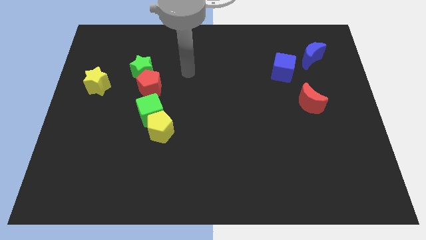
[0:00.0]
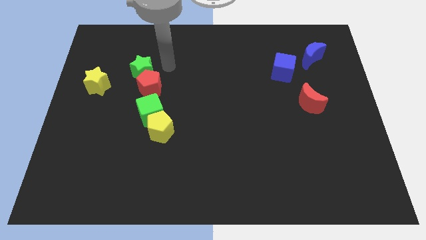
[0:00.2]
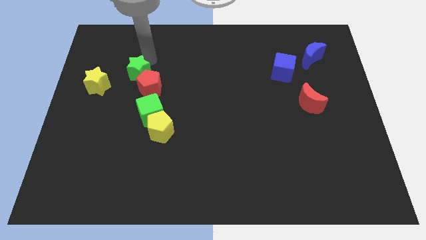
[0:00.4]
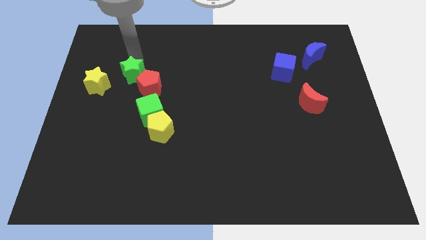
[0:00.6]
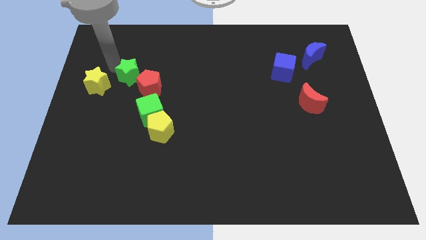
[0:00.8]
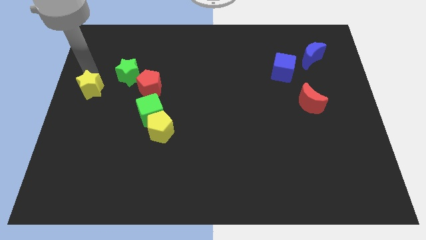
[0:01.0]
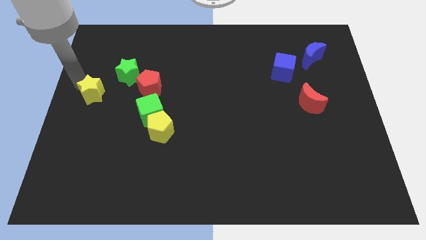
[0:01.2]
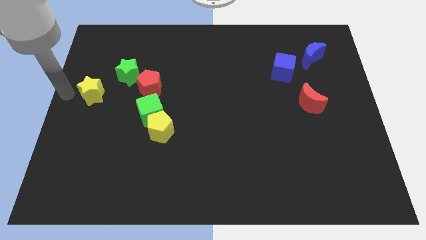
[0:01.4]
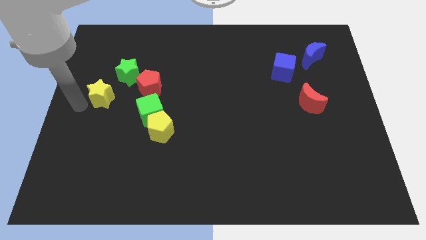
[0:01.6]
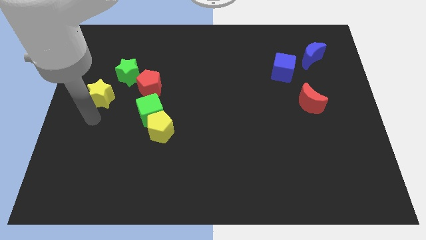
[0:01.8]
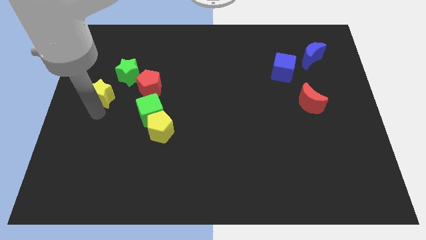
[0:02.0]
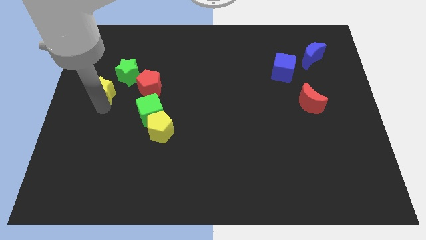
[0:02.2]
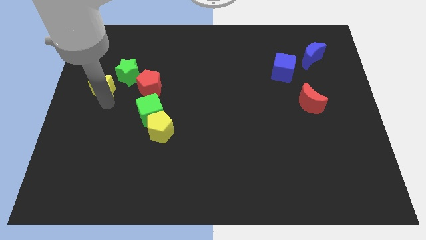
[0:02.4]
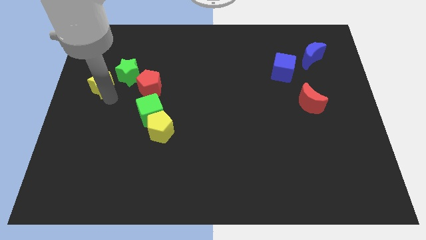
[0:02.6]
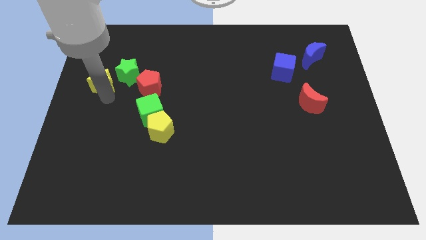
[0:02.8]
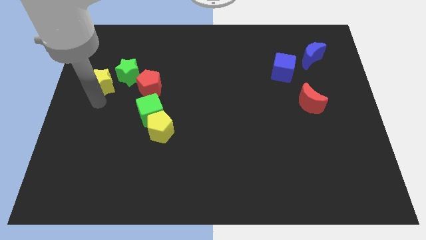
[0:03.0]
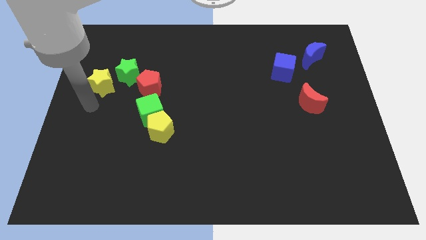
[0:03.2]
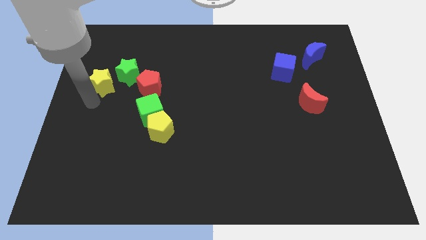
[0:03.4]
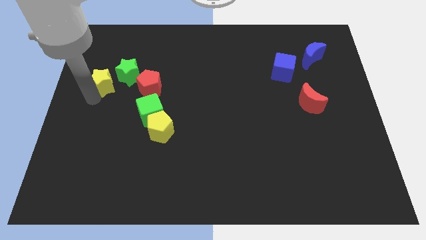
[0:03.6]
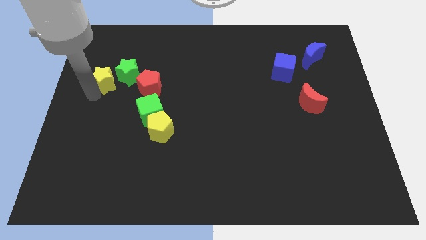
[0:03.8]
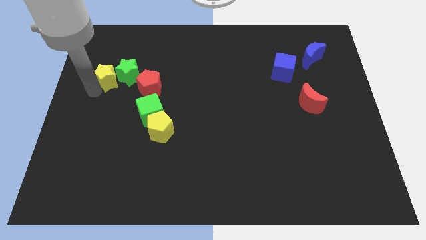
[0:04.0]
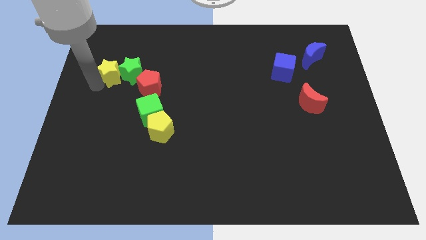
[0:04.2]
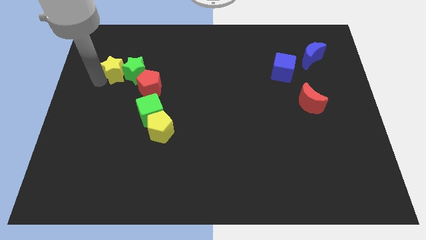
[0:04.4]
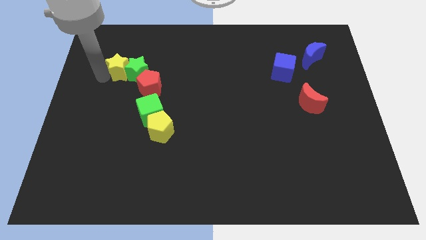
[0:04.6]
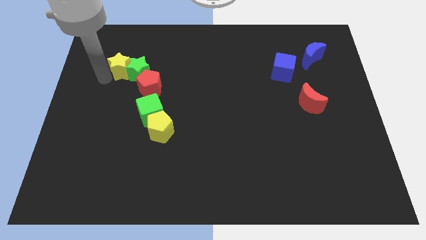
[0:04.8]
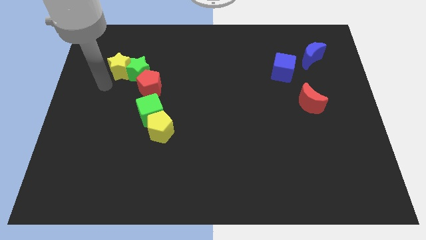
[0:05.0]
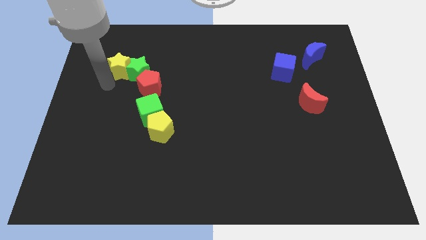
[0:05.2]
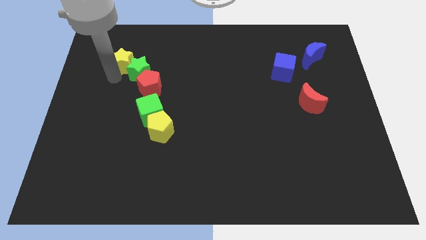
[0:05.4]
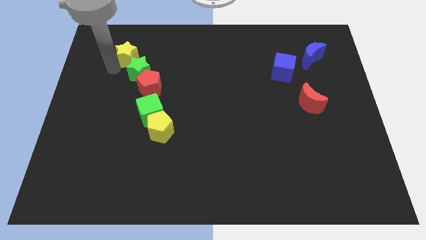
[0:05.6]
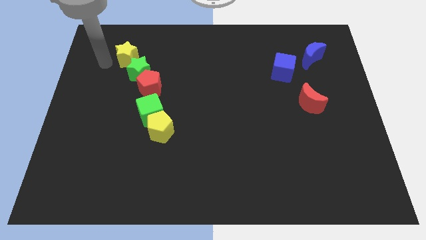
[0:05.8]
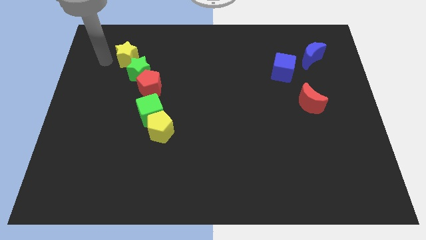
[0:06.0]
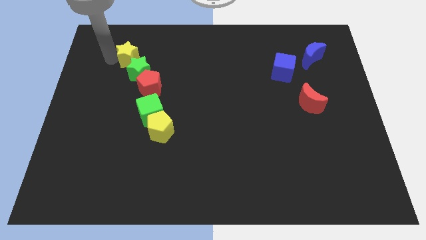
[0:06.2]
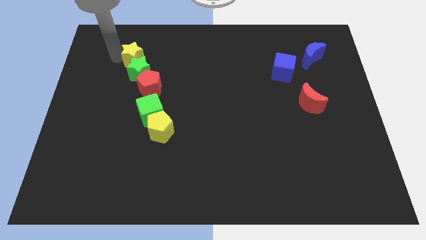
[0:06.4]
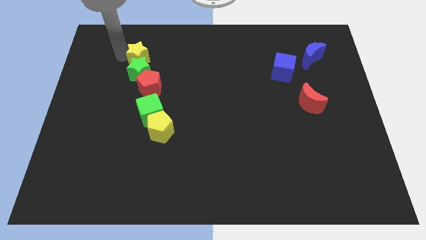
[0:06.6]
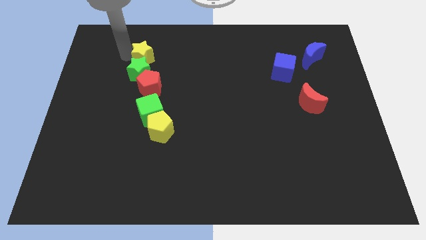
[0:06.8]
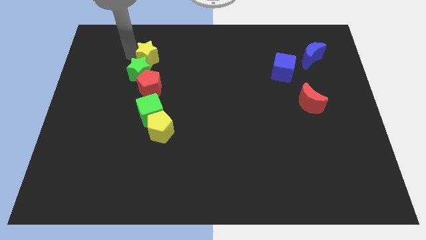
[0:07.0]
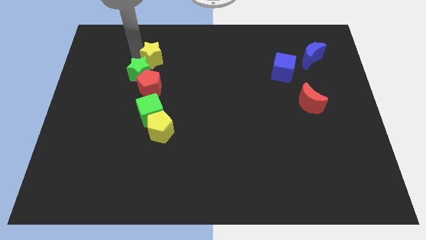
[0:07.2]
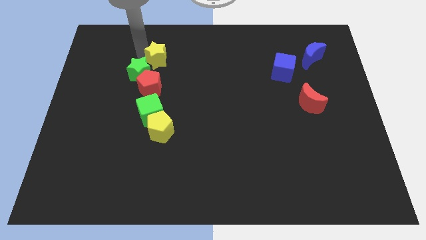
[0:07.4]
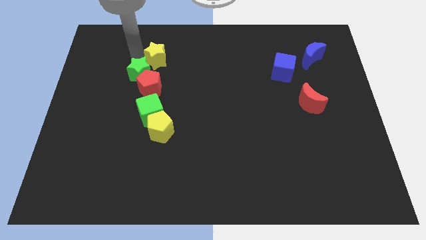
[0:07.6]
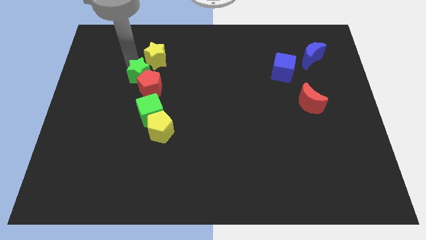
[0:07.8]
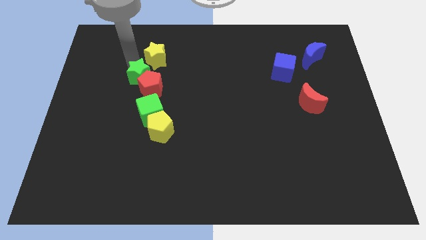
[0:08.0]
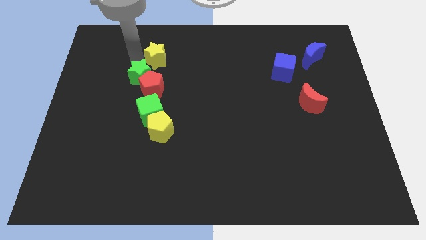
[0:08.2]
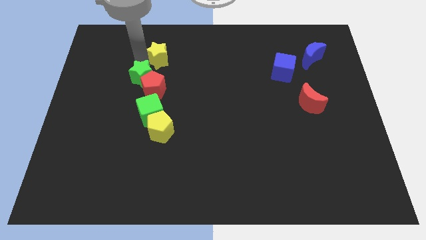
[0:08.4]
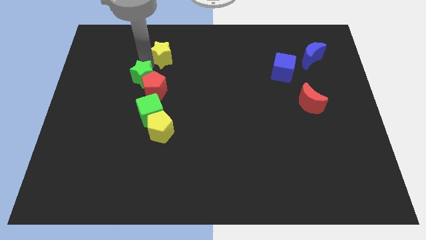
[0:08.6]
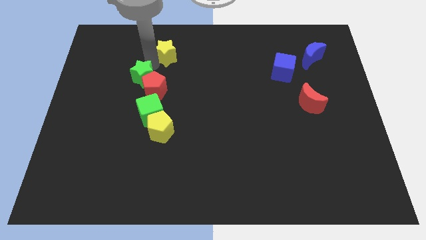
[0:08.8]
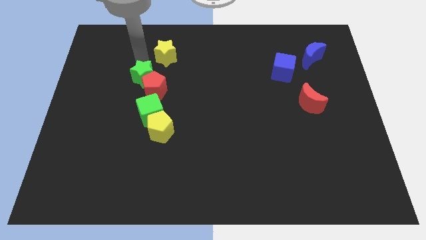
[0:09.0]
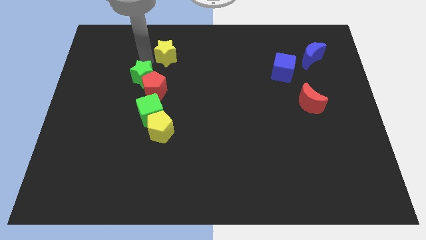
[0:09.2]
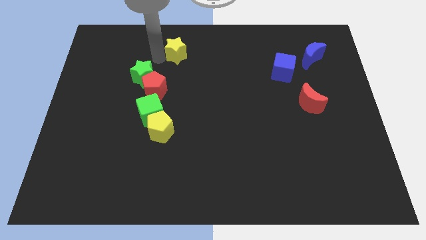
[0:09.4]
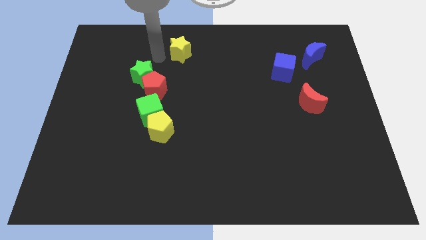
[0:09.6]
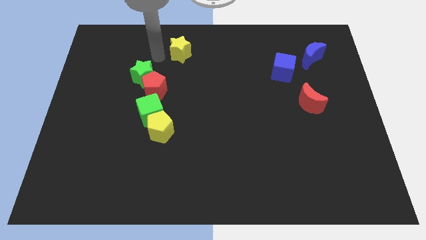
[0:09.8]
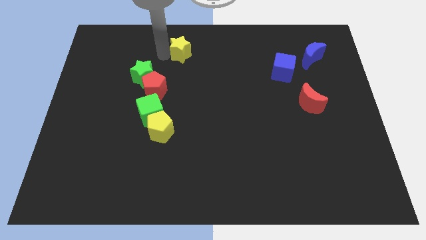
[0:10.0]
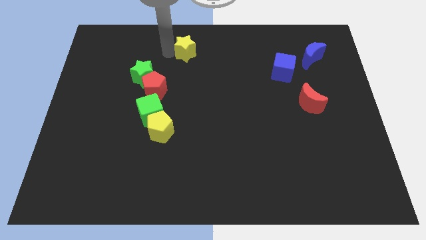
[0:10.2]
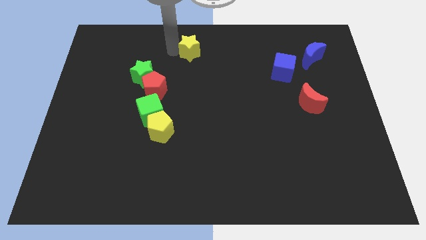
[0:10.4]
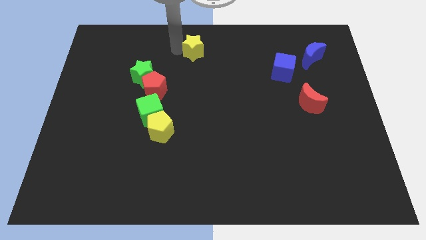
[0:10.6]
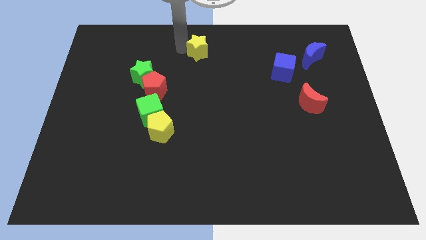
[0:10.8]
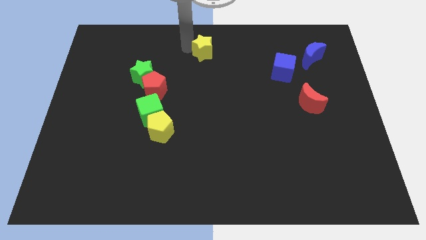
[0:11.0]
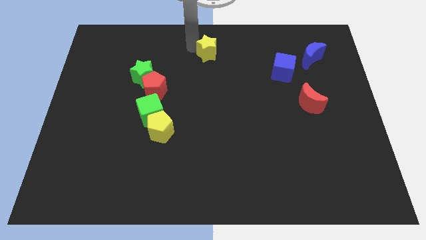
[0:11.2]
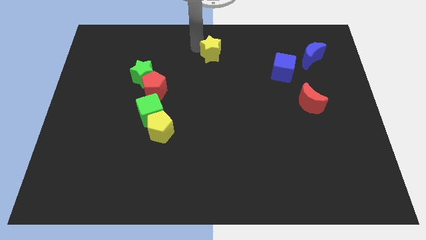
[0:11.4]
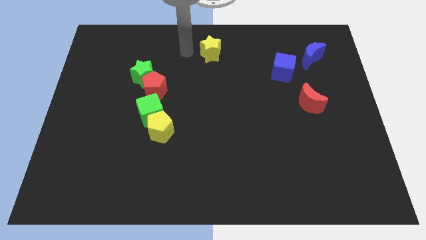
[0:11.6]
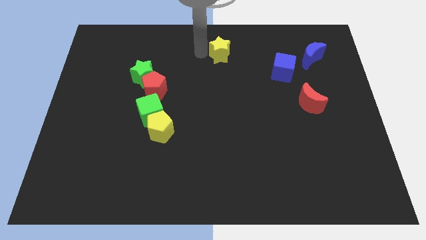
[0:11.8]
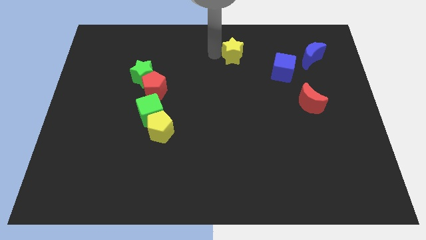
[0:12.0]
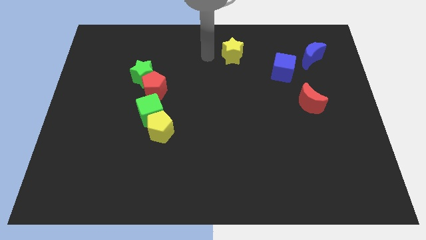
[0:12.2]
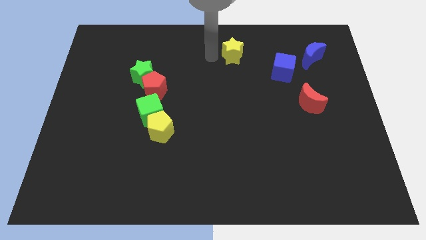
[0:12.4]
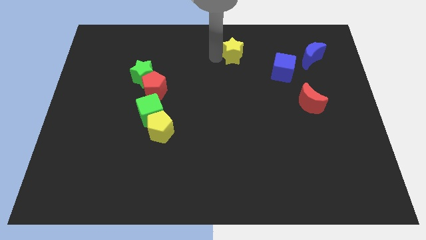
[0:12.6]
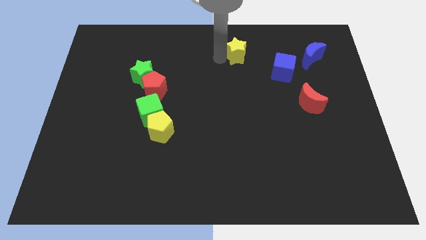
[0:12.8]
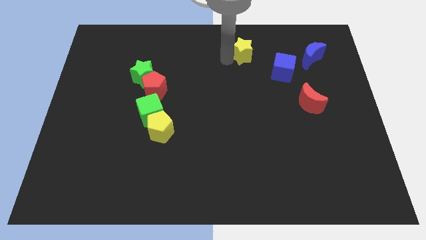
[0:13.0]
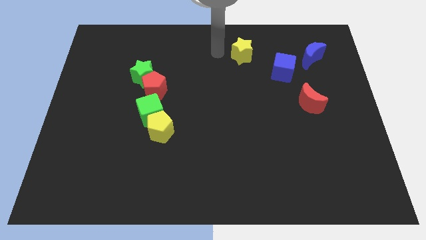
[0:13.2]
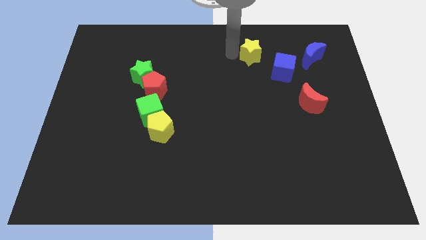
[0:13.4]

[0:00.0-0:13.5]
move the yellow star left of the blue moon

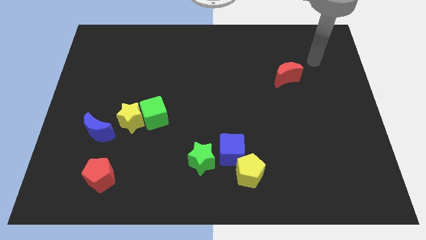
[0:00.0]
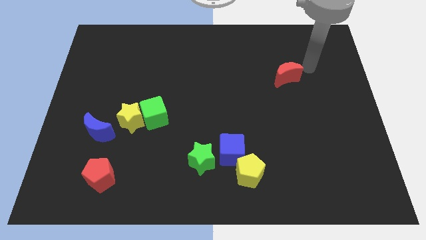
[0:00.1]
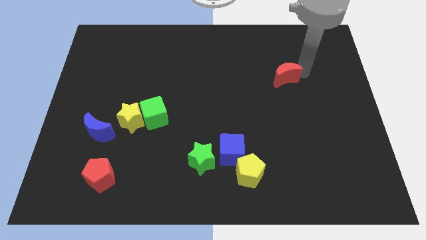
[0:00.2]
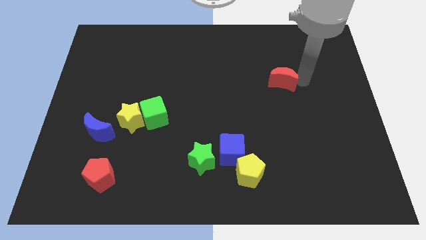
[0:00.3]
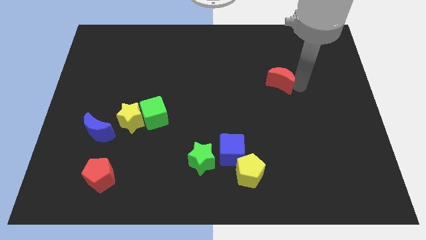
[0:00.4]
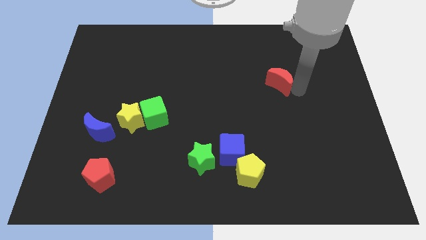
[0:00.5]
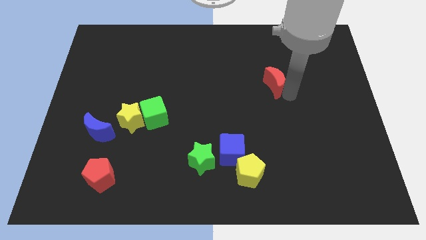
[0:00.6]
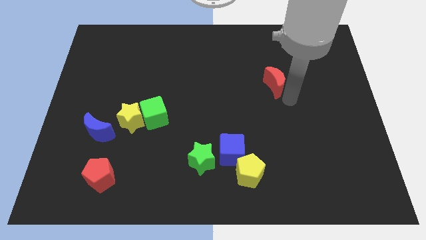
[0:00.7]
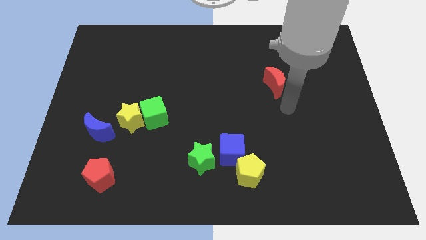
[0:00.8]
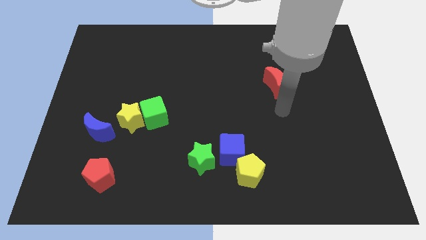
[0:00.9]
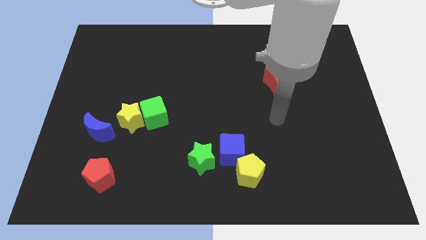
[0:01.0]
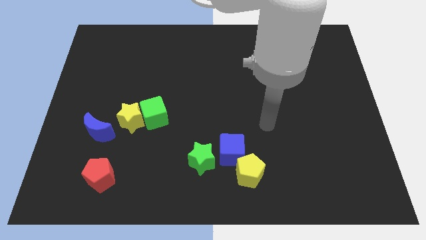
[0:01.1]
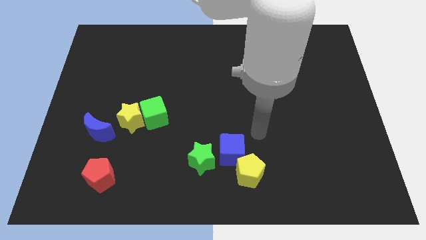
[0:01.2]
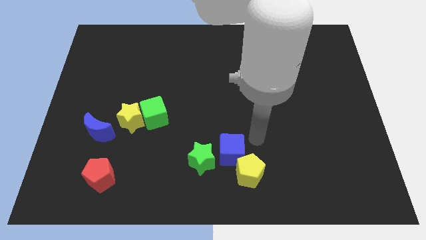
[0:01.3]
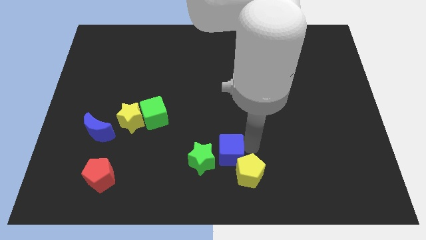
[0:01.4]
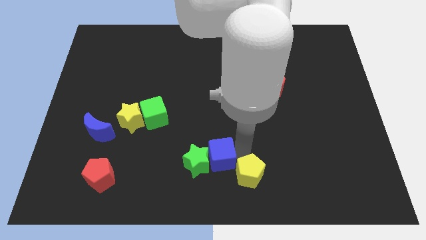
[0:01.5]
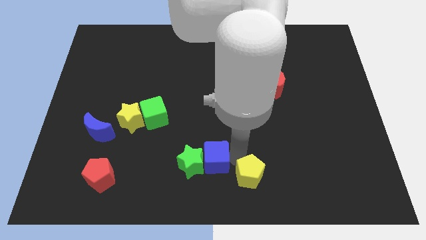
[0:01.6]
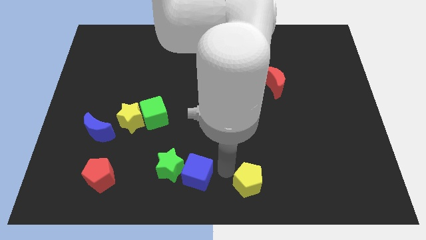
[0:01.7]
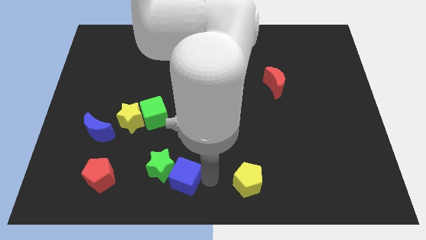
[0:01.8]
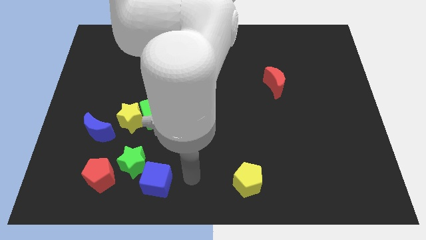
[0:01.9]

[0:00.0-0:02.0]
put the green star to the bottom right of the blue moon
